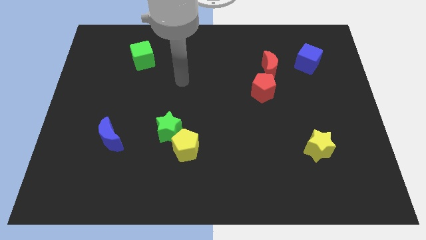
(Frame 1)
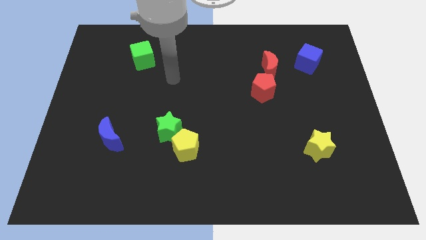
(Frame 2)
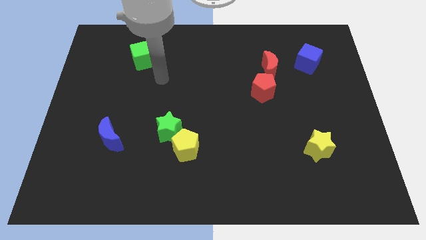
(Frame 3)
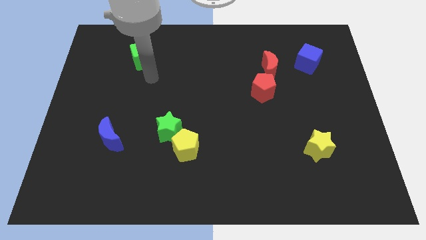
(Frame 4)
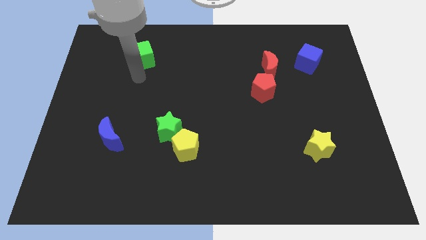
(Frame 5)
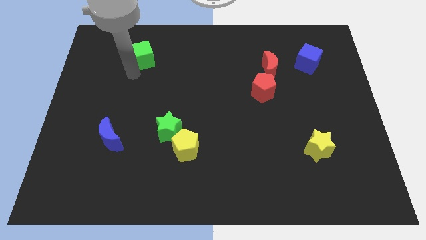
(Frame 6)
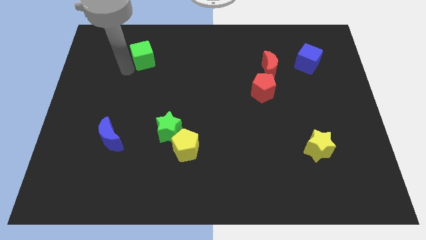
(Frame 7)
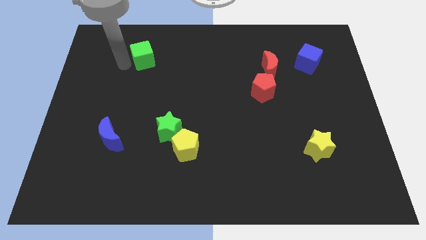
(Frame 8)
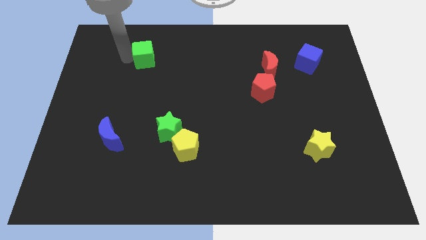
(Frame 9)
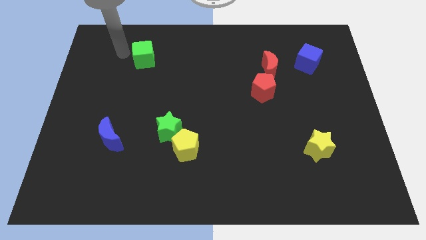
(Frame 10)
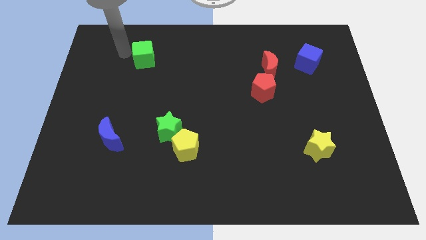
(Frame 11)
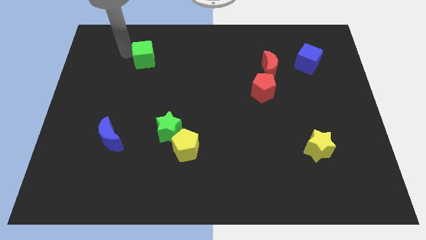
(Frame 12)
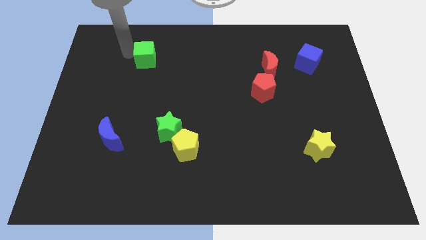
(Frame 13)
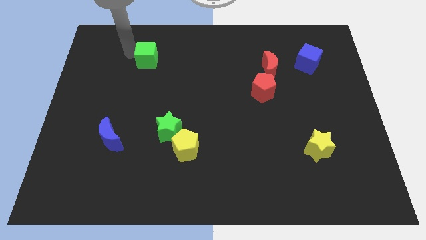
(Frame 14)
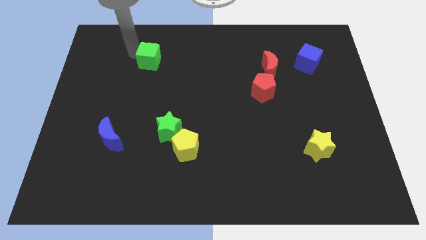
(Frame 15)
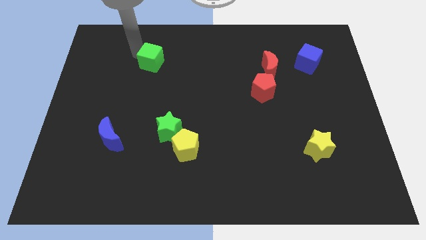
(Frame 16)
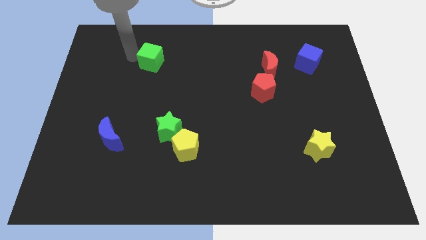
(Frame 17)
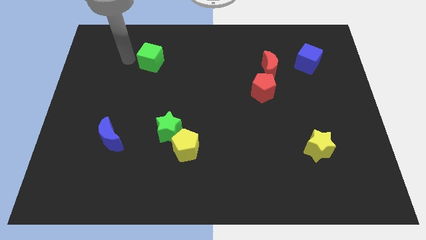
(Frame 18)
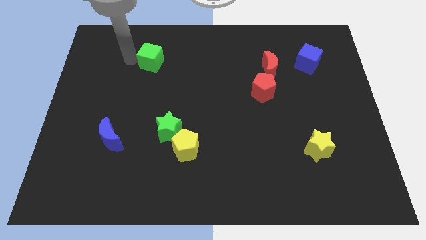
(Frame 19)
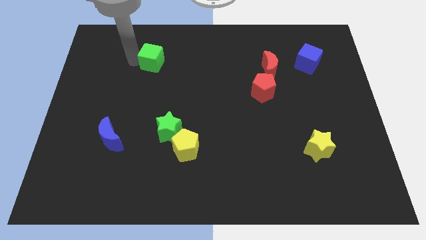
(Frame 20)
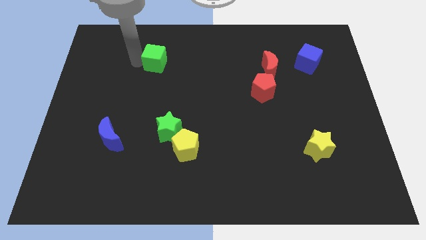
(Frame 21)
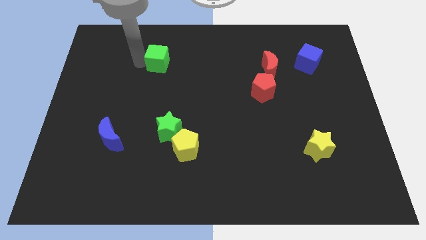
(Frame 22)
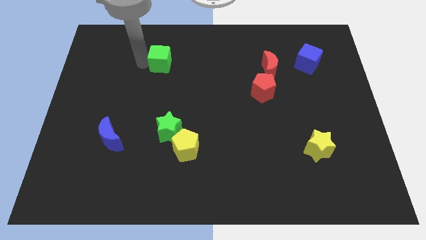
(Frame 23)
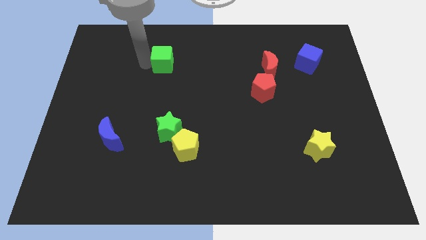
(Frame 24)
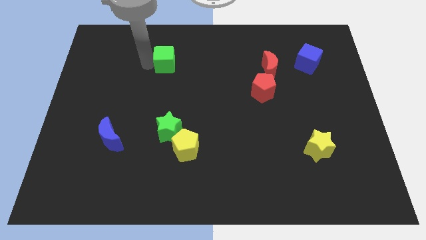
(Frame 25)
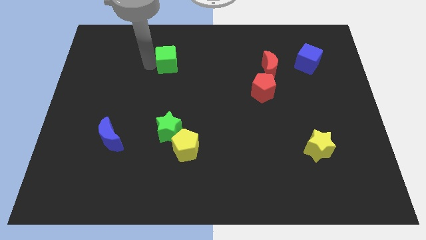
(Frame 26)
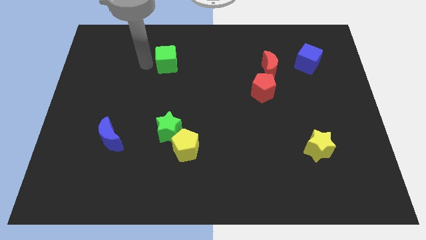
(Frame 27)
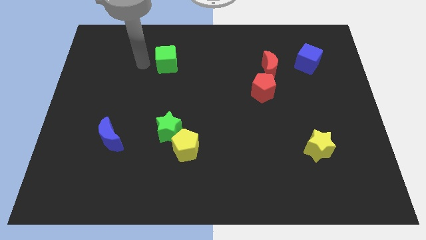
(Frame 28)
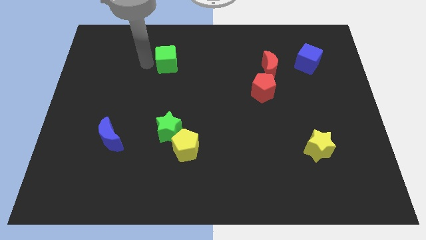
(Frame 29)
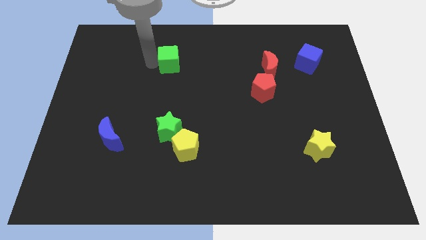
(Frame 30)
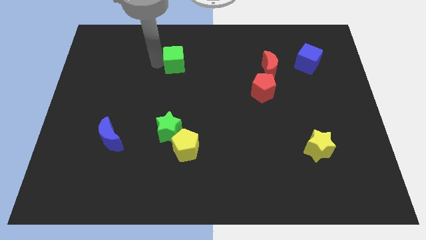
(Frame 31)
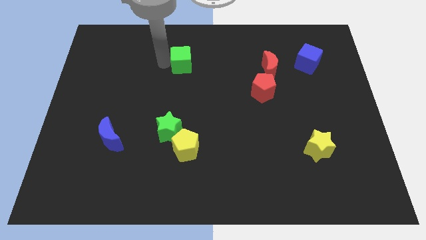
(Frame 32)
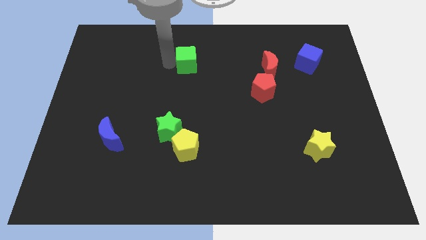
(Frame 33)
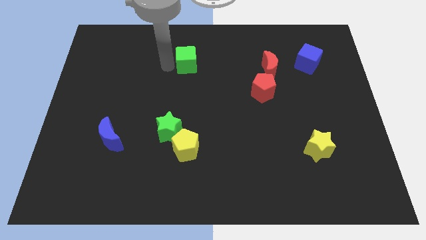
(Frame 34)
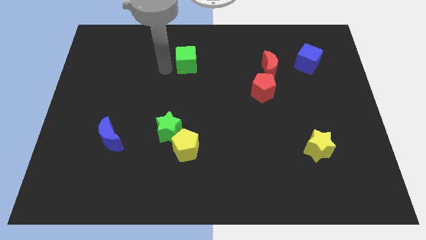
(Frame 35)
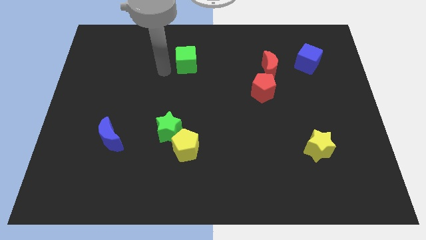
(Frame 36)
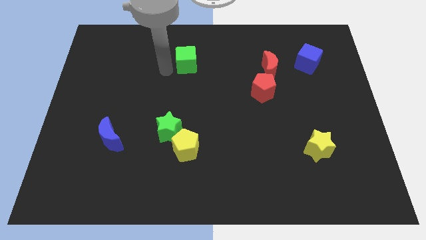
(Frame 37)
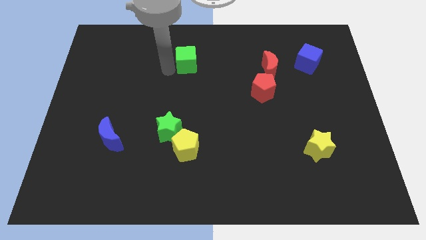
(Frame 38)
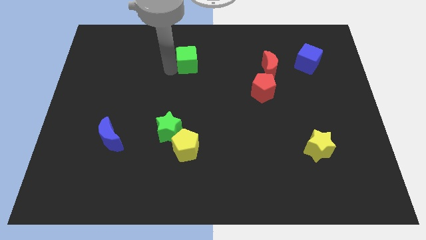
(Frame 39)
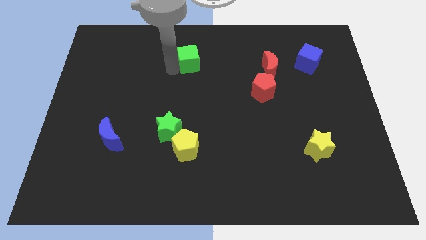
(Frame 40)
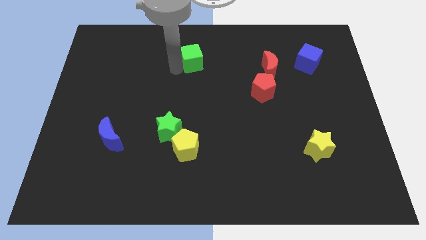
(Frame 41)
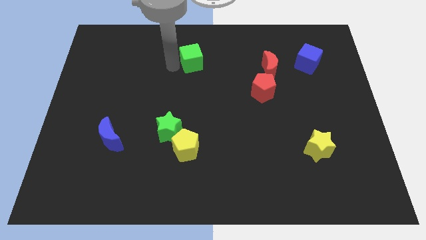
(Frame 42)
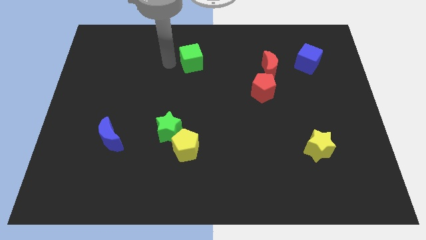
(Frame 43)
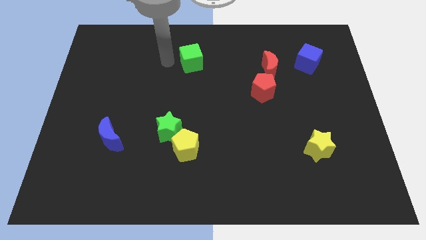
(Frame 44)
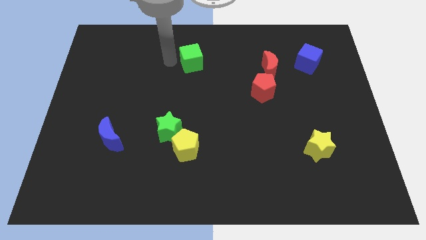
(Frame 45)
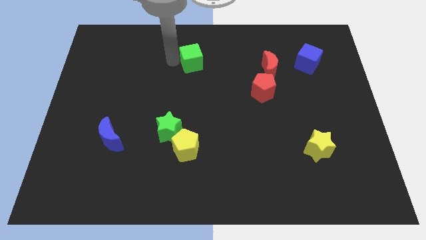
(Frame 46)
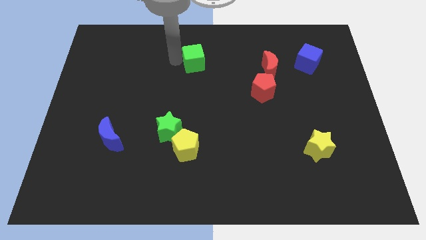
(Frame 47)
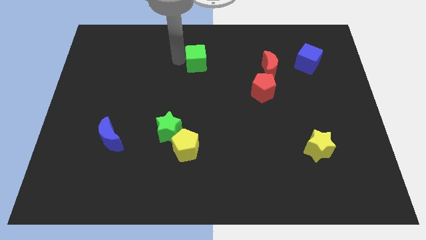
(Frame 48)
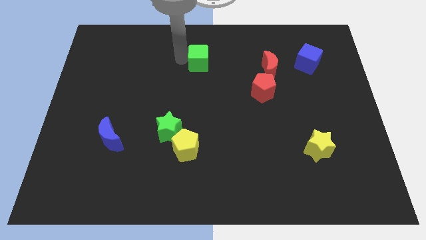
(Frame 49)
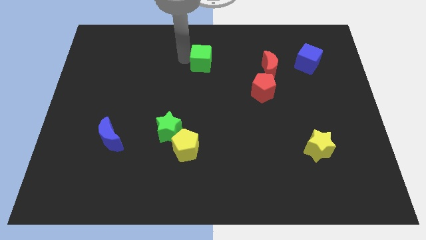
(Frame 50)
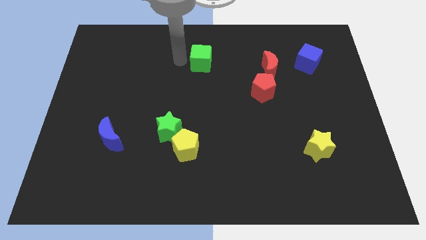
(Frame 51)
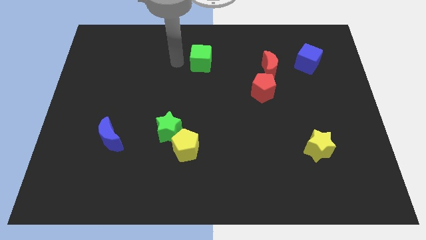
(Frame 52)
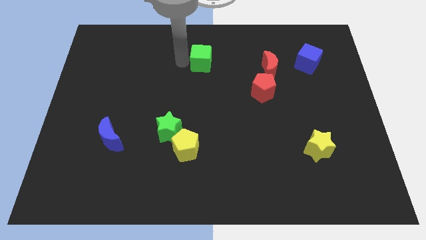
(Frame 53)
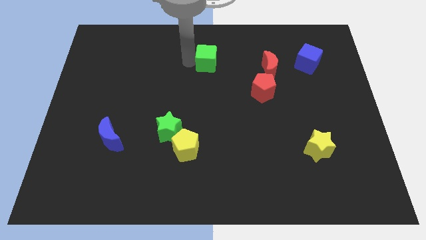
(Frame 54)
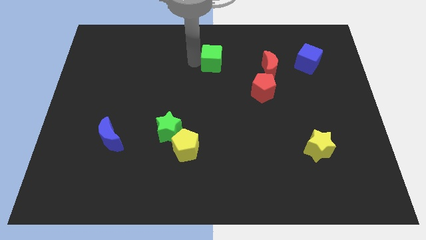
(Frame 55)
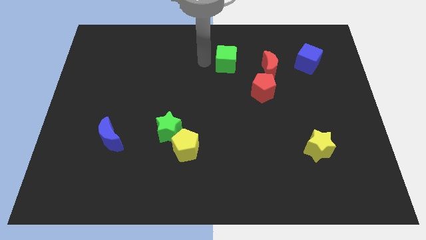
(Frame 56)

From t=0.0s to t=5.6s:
slide the green cube right

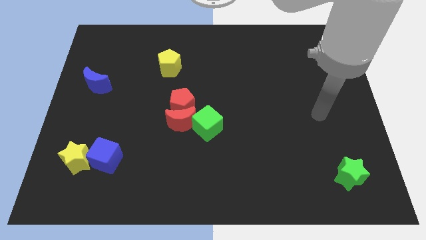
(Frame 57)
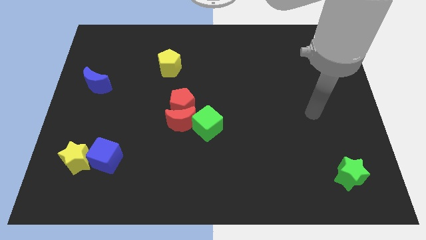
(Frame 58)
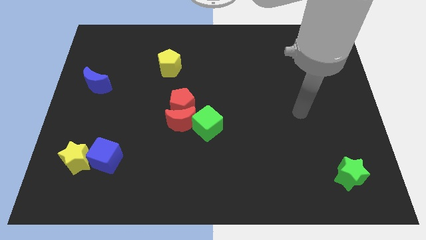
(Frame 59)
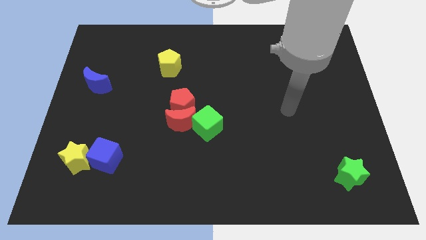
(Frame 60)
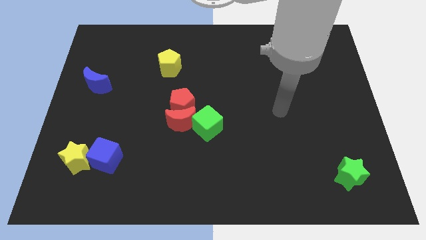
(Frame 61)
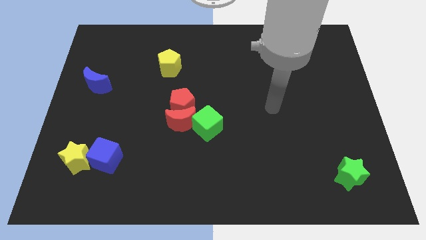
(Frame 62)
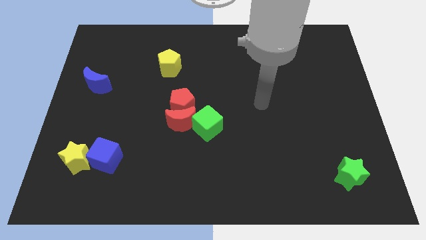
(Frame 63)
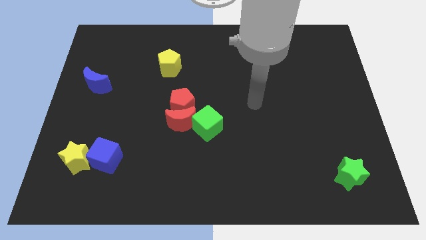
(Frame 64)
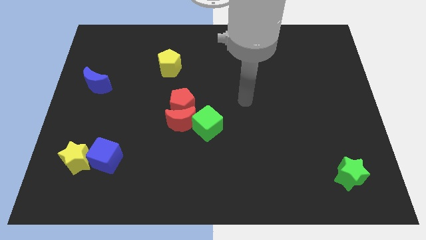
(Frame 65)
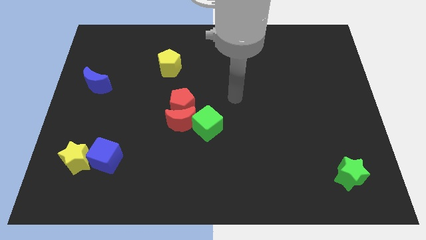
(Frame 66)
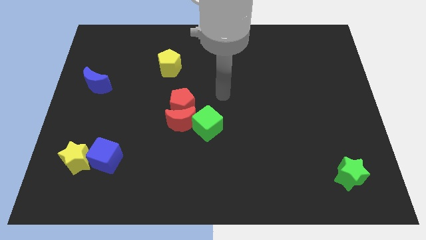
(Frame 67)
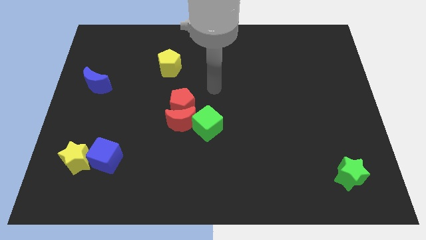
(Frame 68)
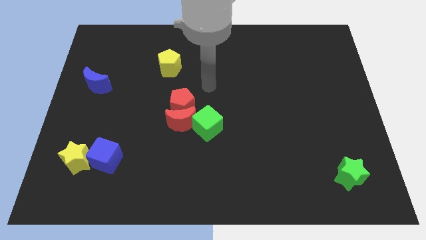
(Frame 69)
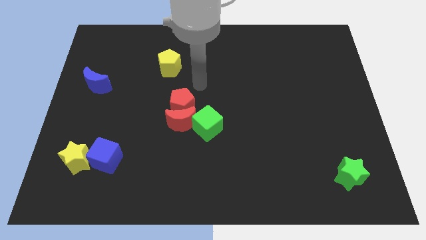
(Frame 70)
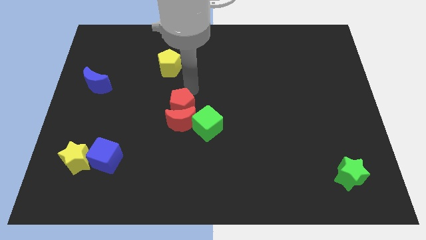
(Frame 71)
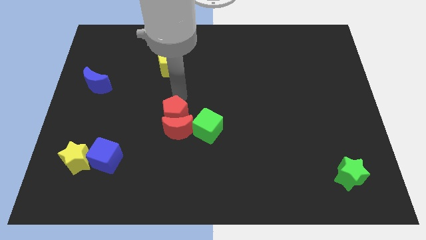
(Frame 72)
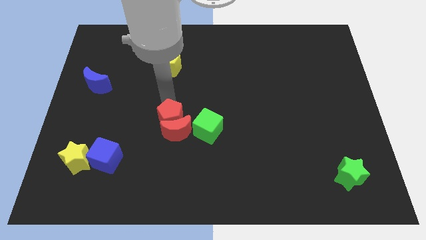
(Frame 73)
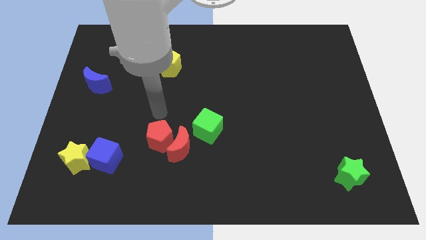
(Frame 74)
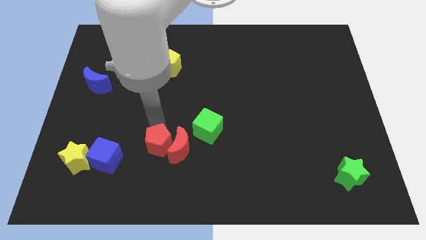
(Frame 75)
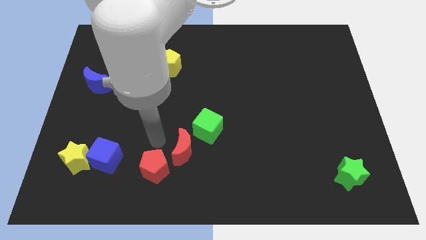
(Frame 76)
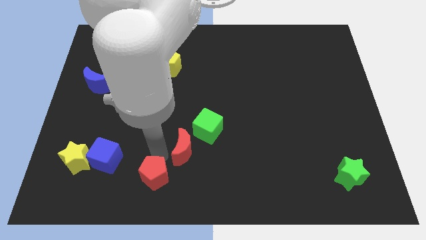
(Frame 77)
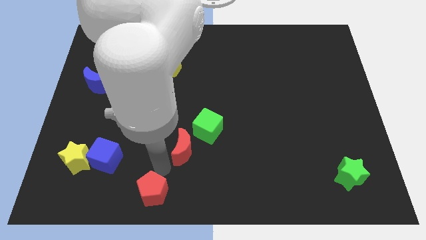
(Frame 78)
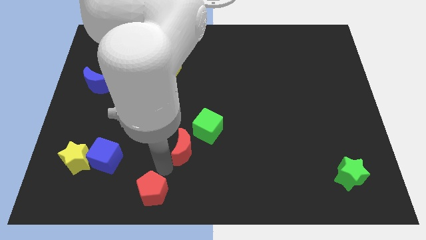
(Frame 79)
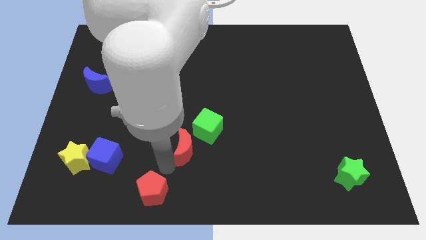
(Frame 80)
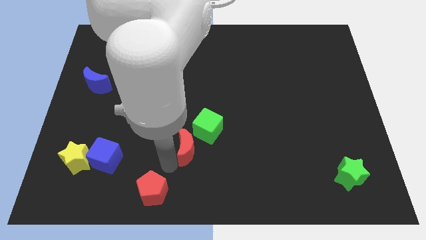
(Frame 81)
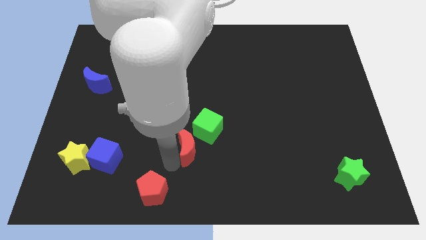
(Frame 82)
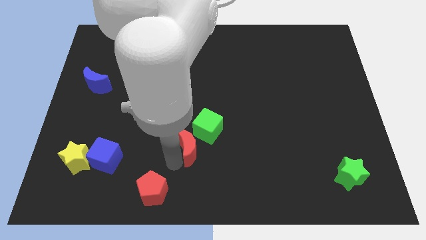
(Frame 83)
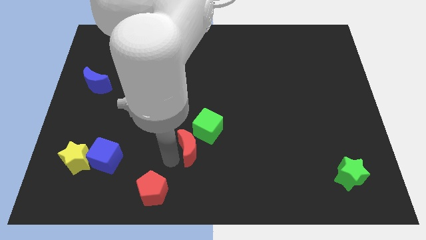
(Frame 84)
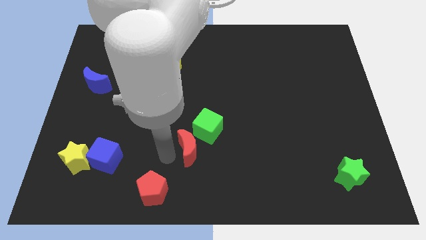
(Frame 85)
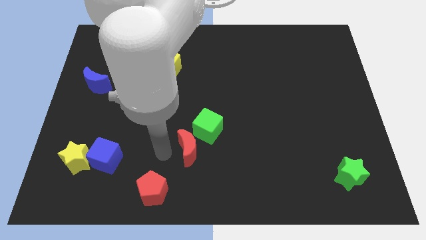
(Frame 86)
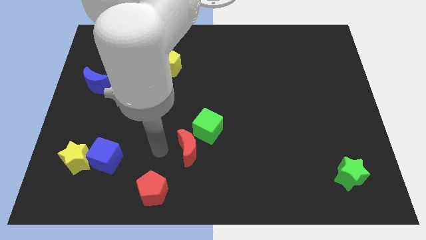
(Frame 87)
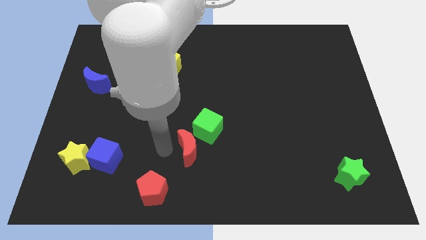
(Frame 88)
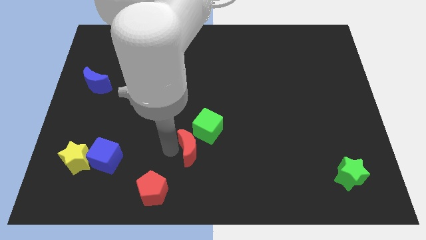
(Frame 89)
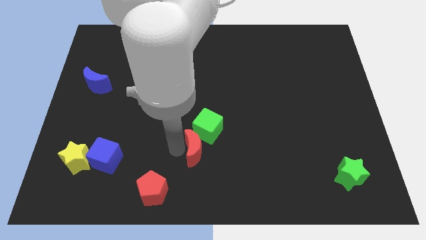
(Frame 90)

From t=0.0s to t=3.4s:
slightly push the red moon downwards and then to the right
